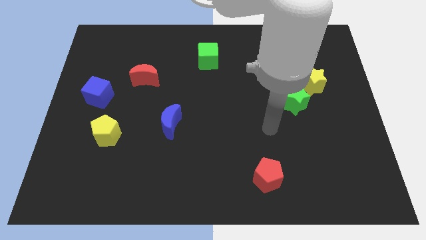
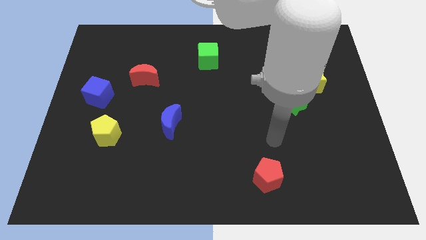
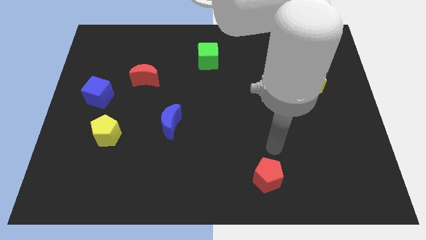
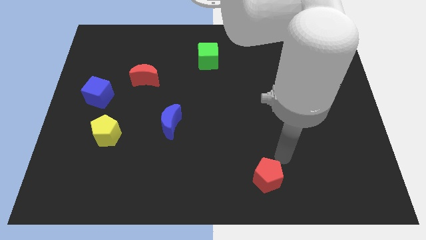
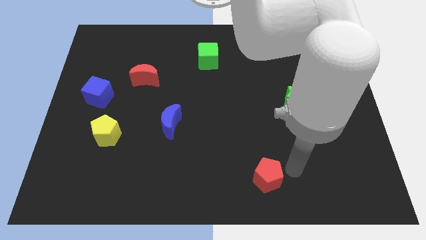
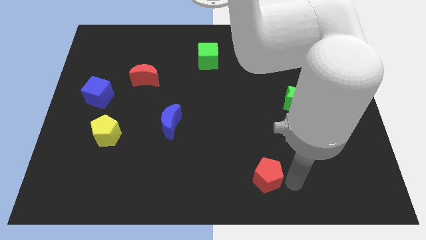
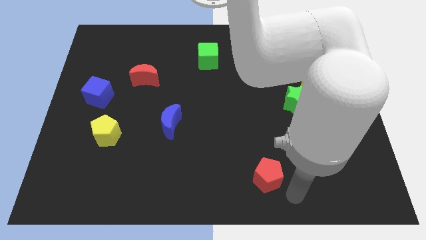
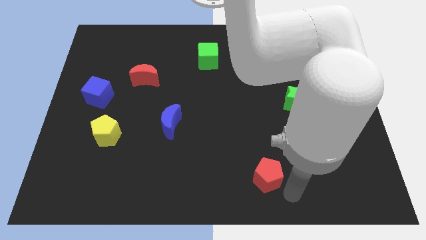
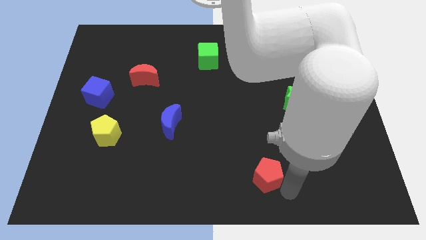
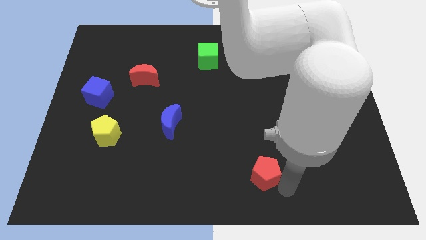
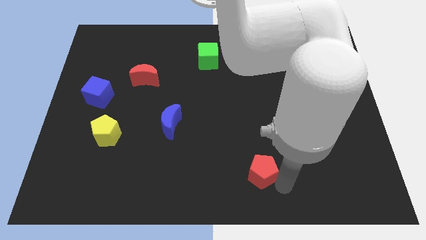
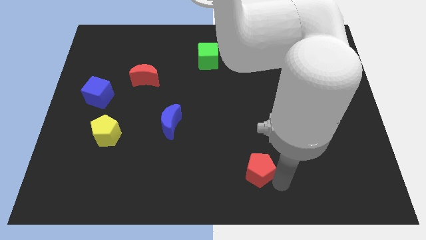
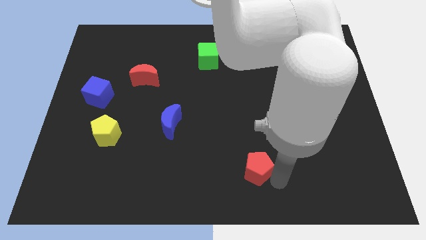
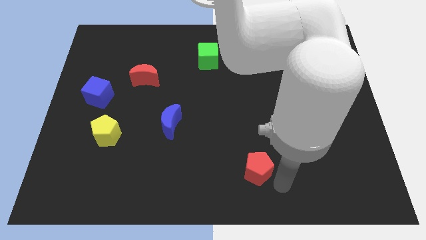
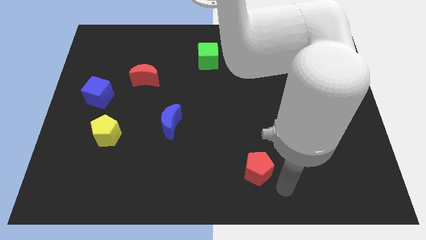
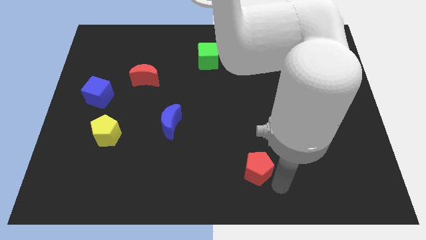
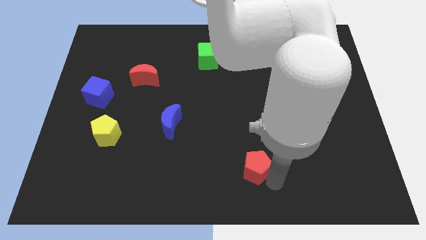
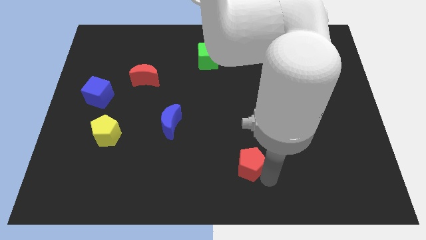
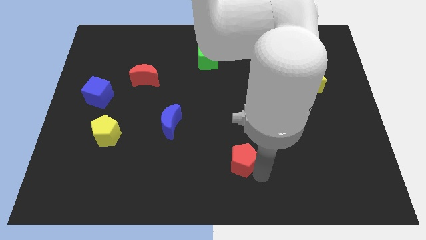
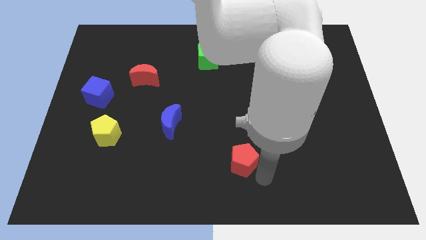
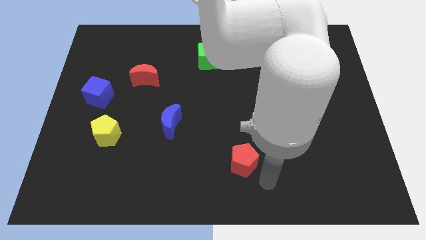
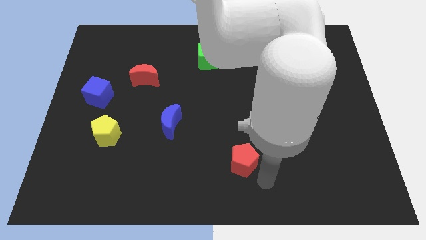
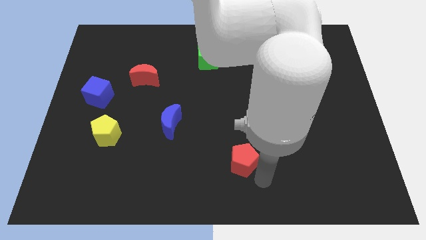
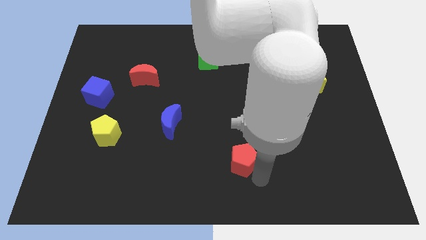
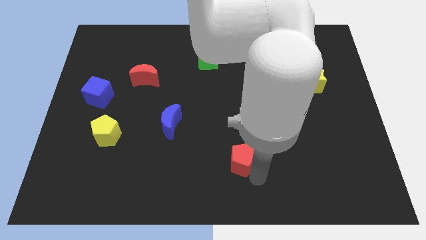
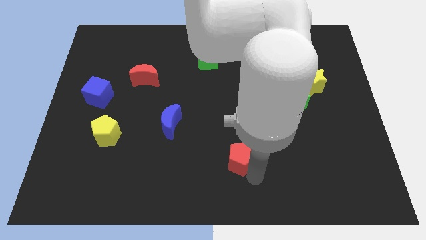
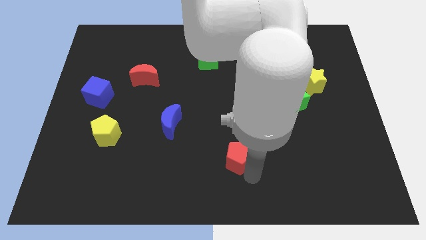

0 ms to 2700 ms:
slightly push the red pentagon diagonally up and left

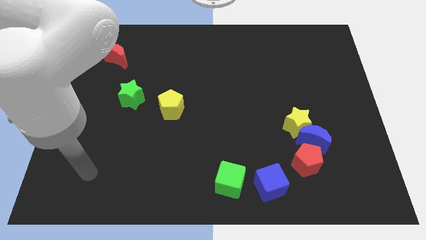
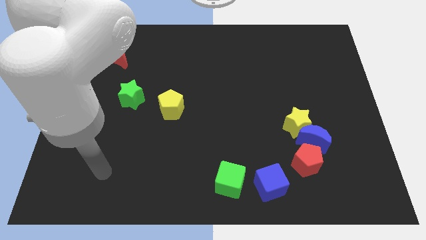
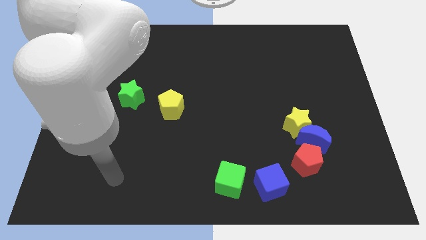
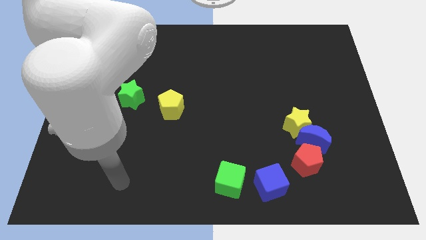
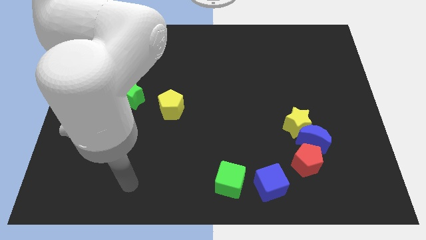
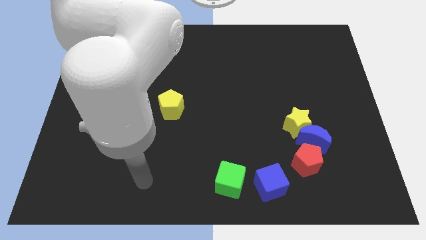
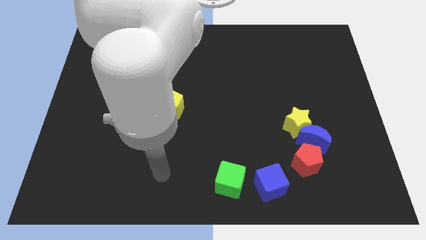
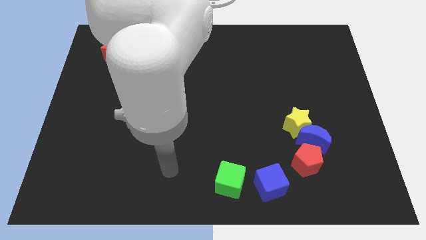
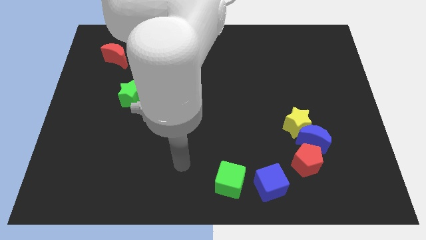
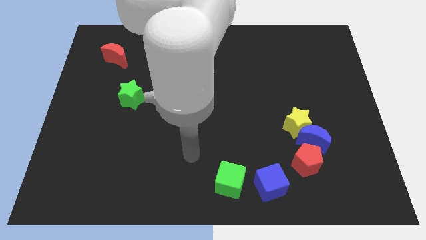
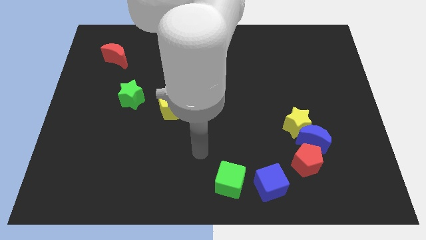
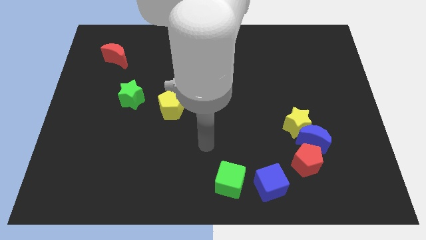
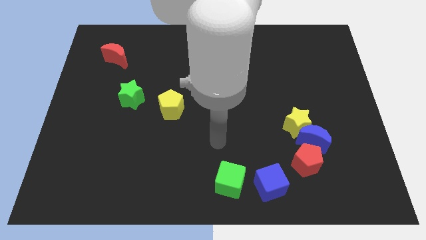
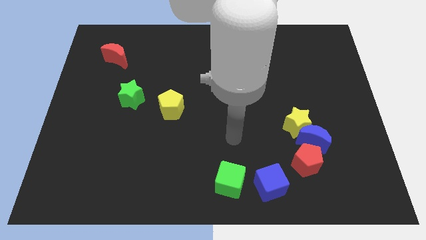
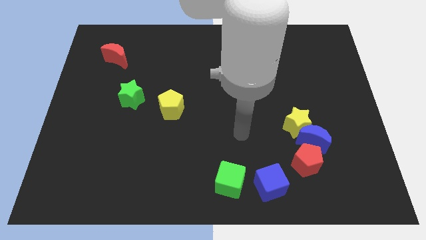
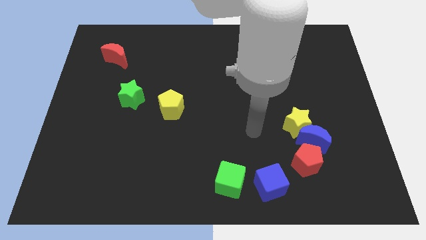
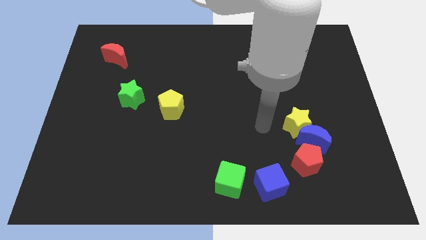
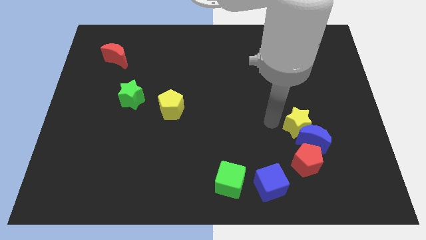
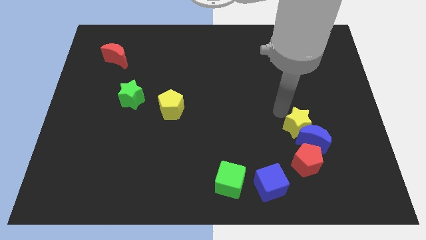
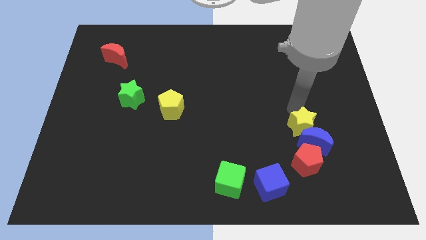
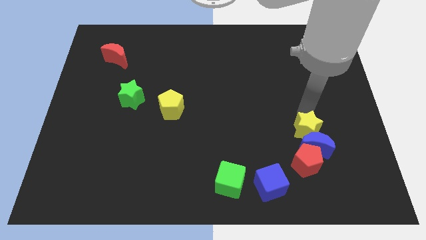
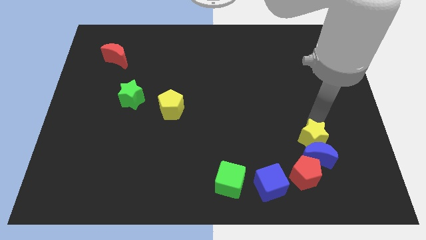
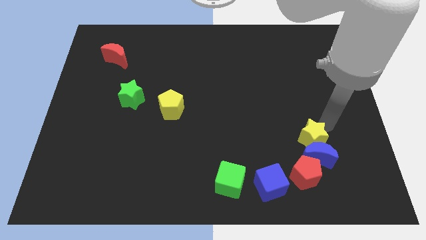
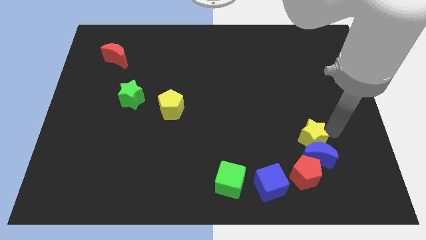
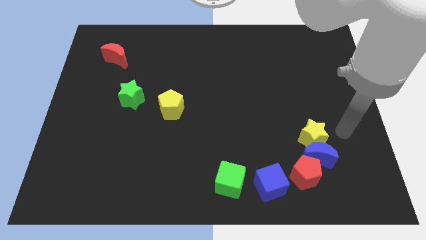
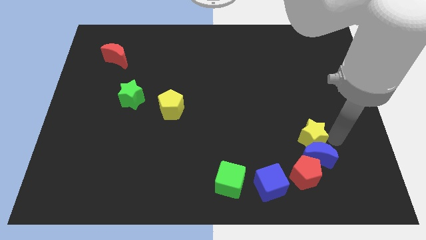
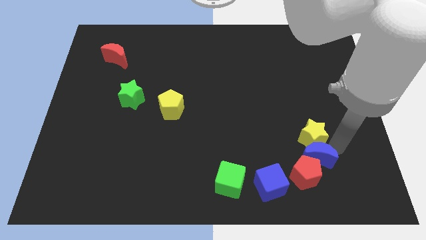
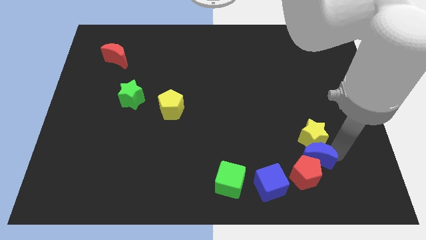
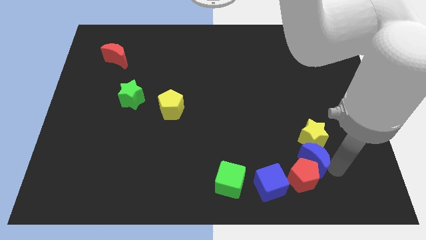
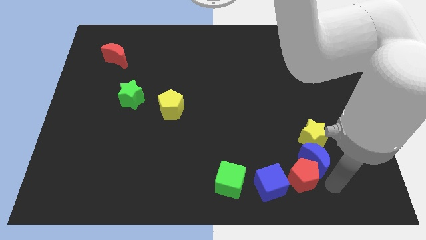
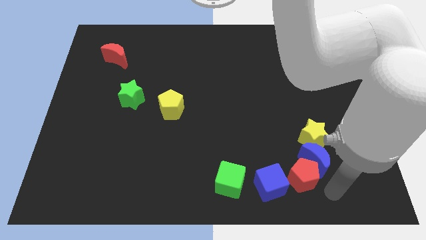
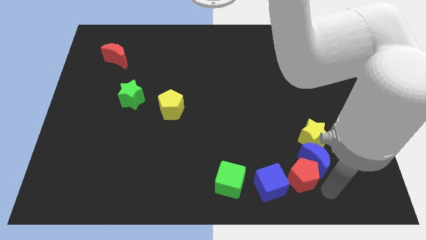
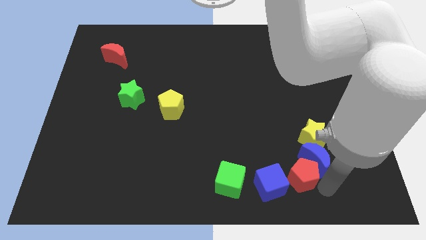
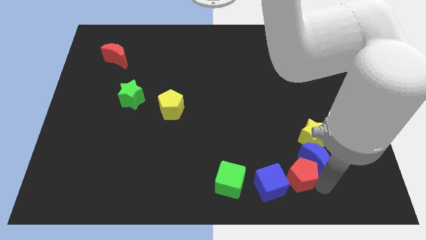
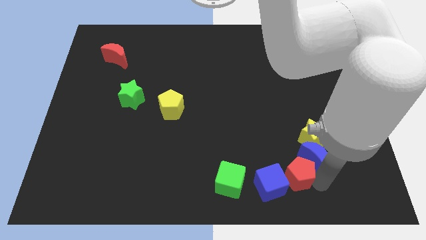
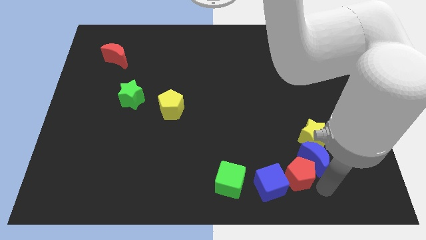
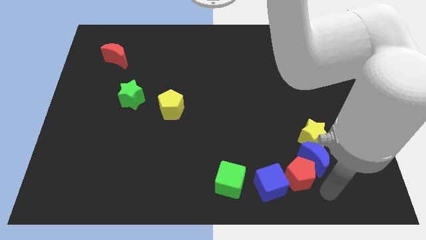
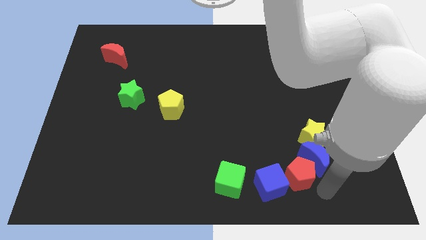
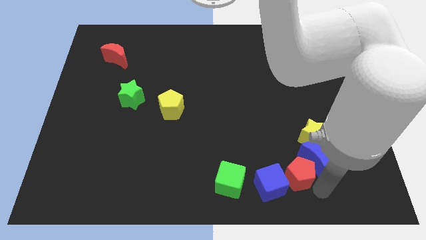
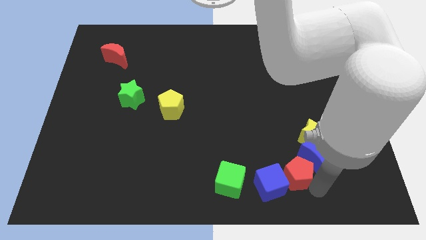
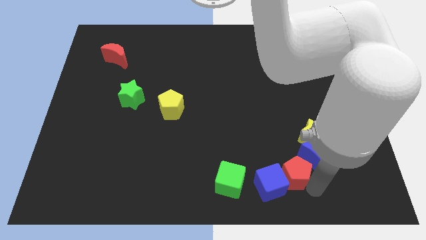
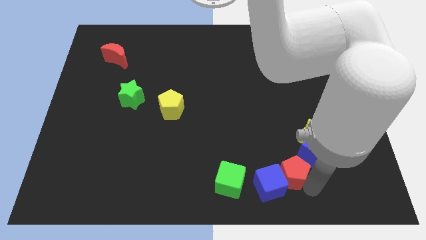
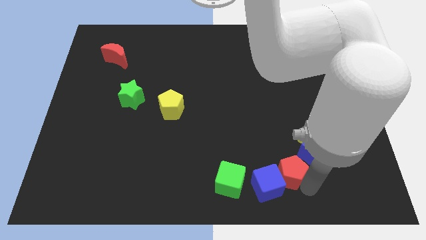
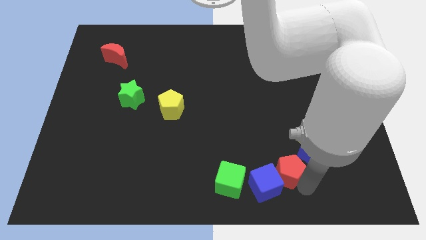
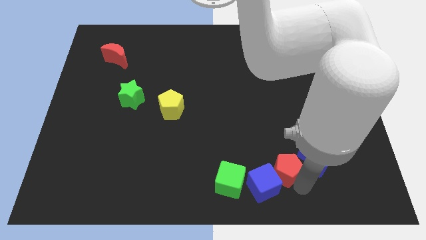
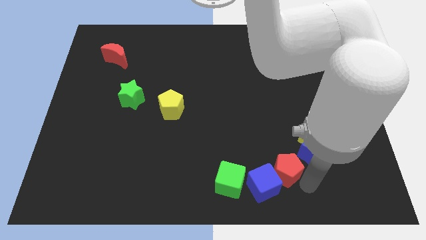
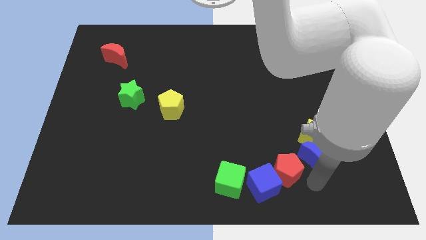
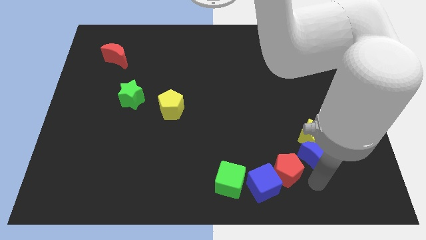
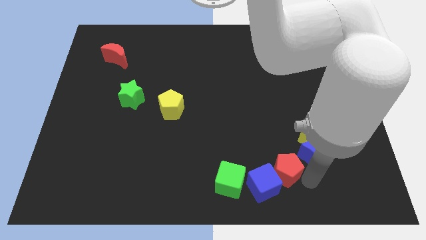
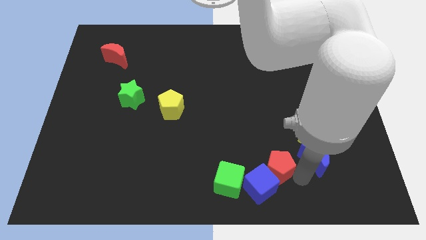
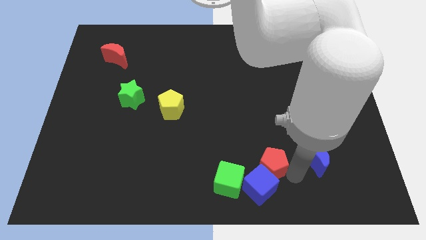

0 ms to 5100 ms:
push the red pentagon to the left a little bit

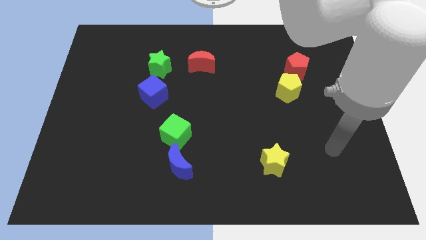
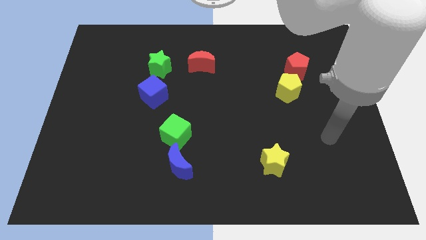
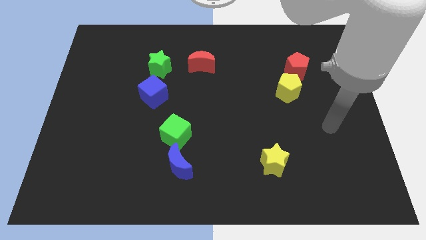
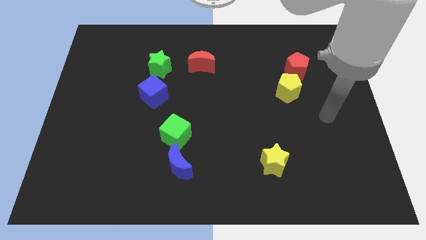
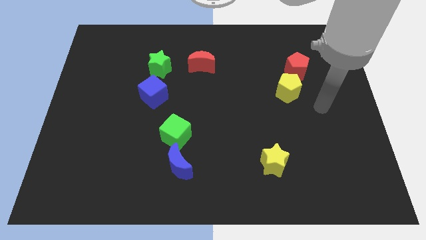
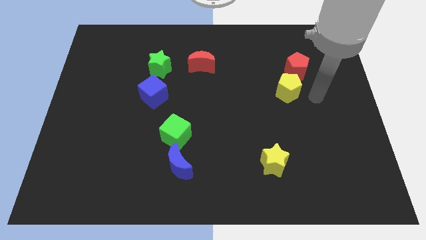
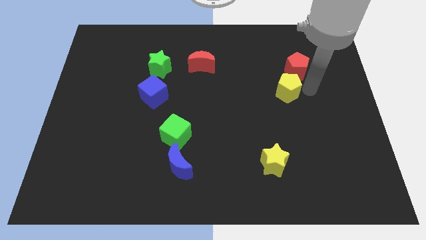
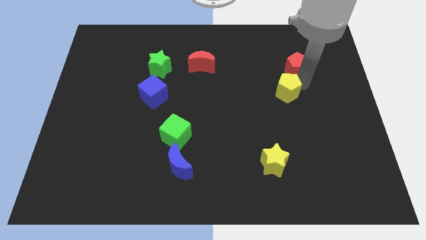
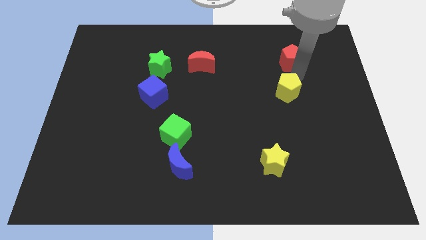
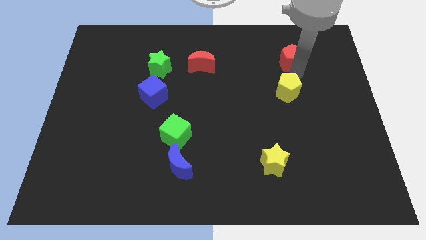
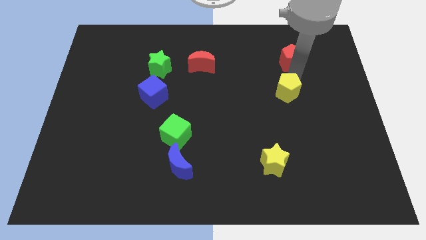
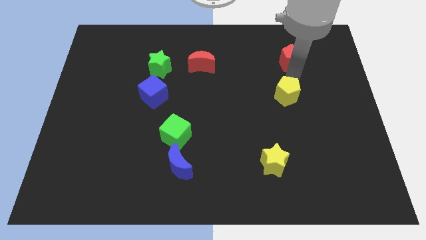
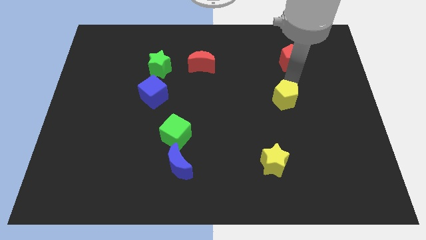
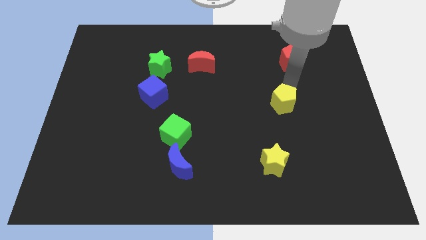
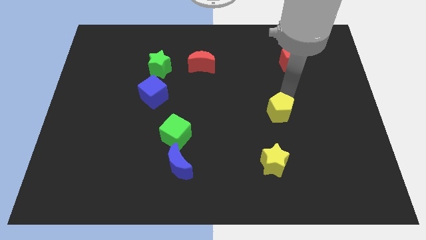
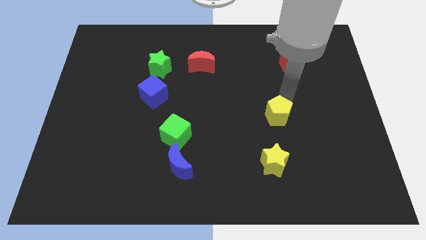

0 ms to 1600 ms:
slide the yellow pentagon slightly down and then left
